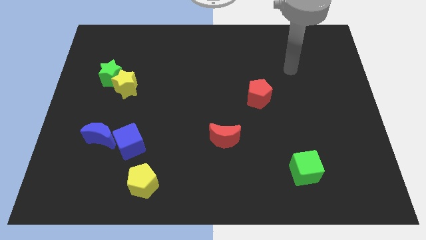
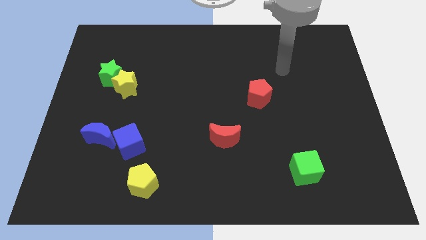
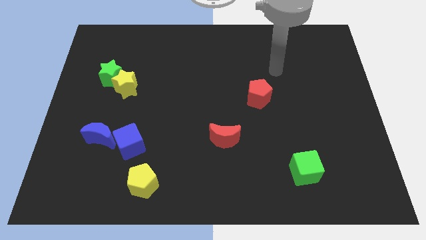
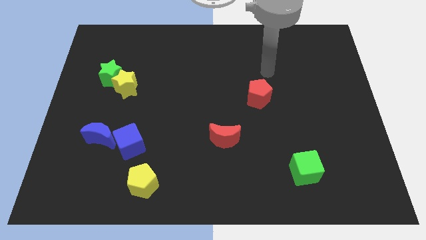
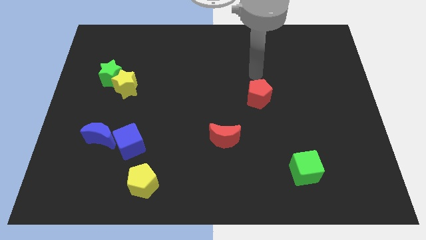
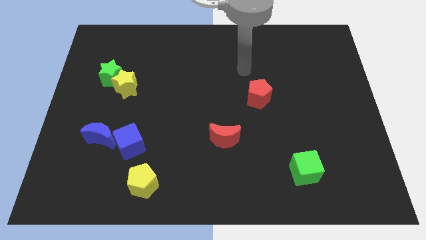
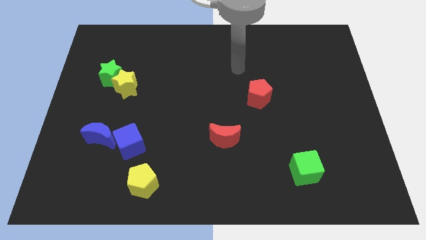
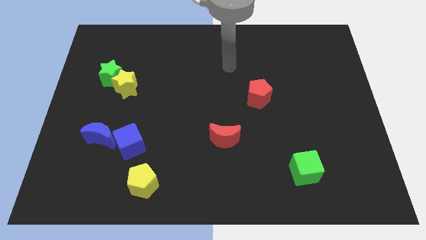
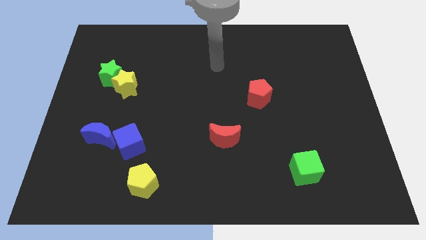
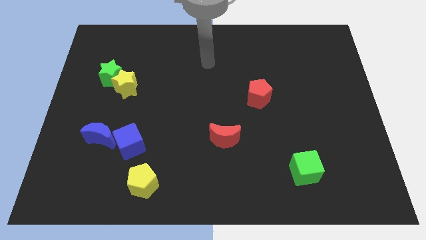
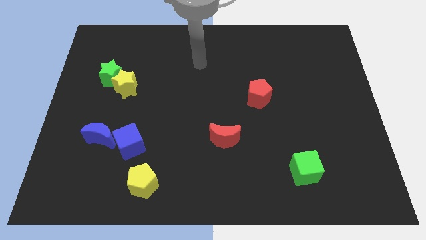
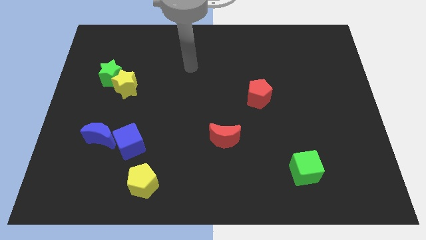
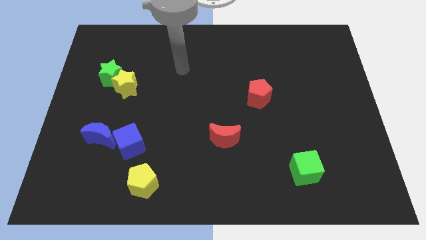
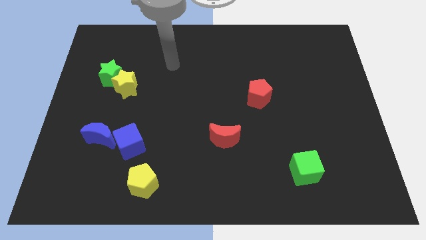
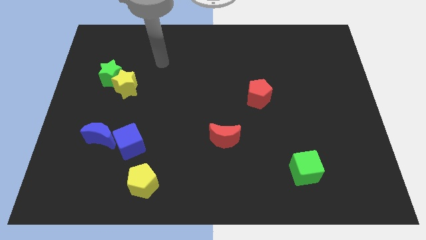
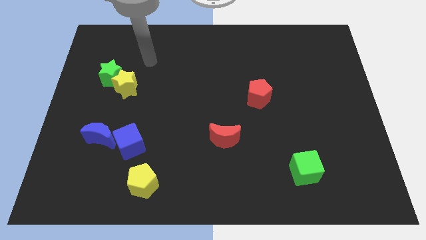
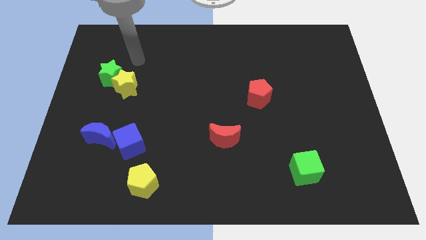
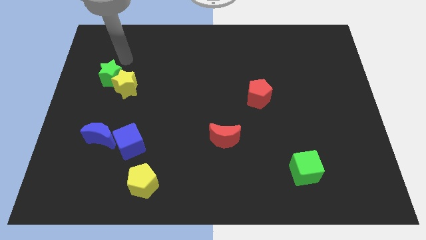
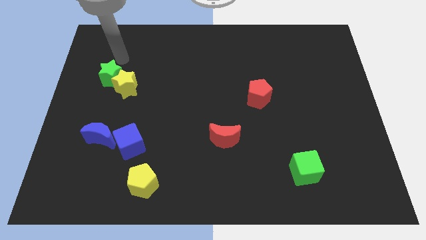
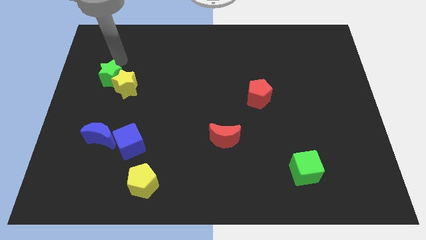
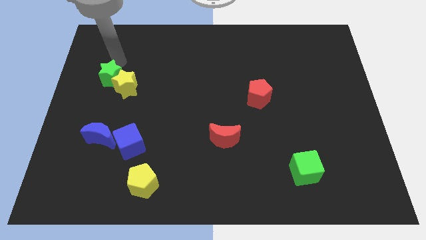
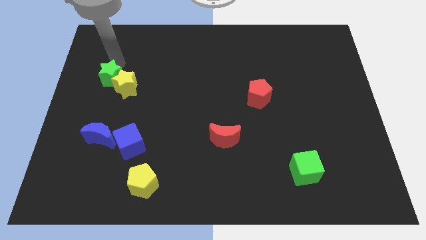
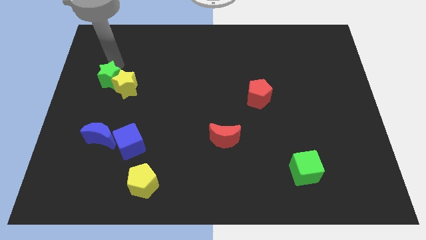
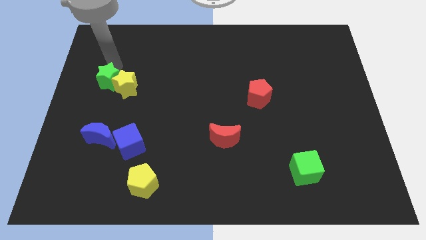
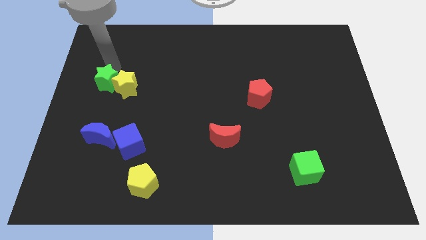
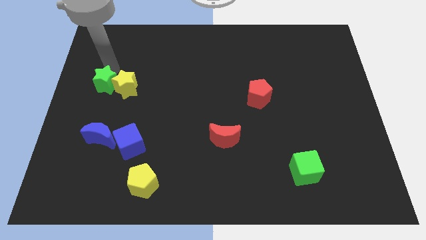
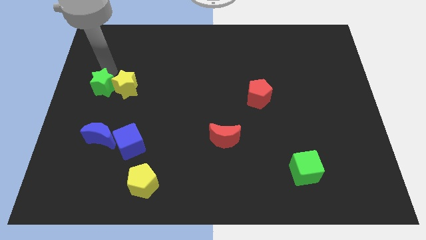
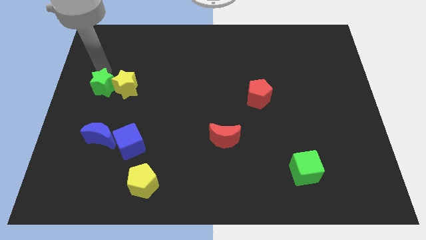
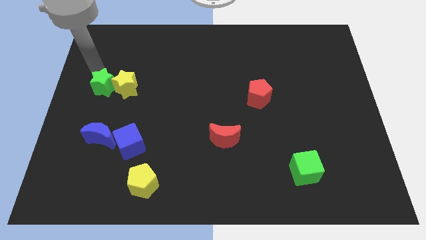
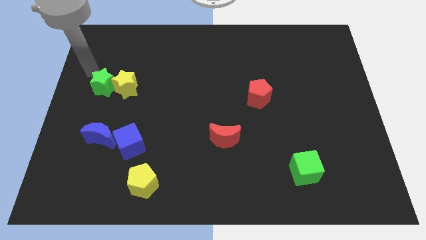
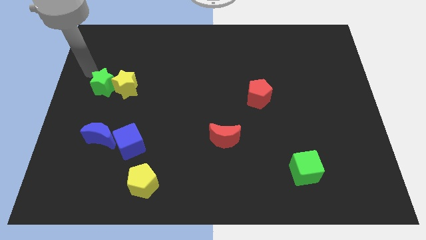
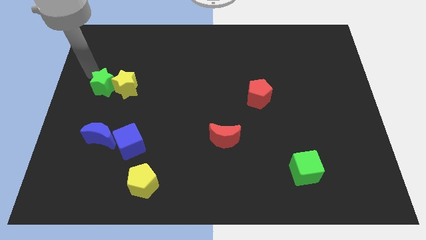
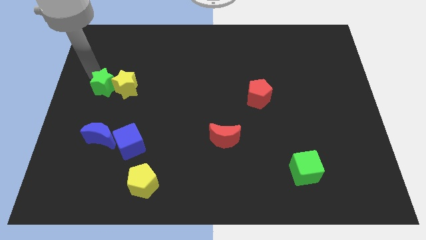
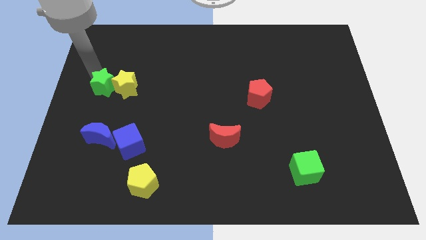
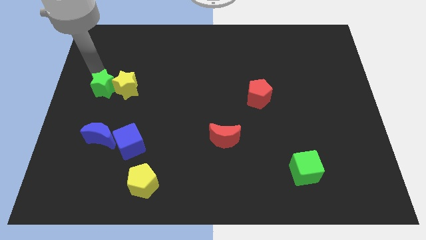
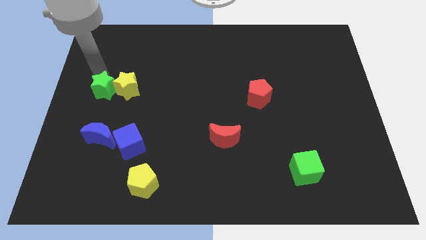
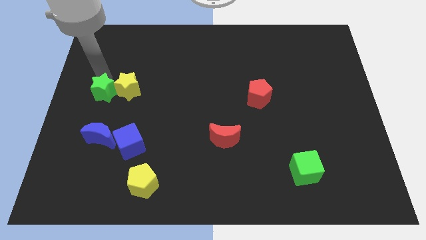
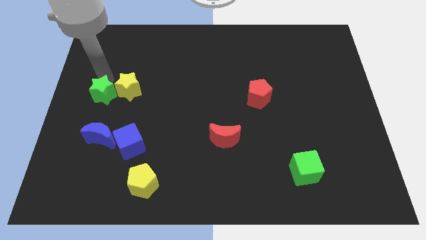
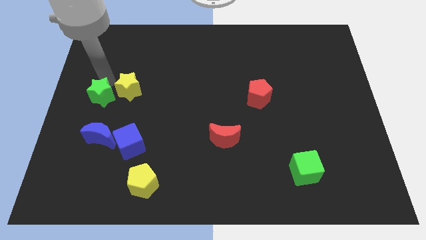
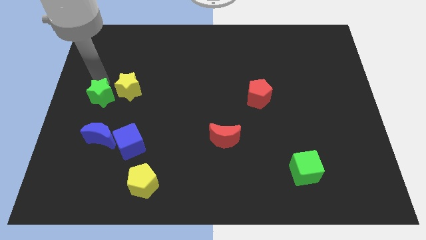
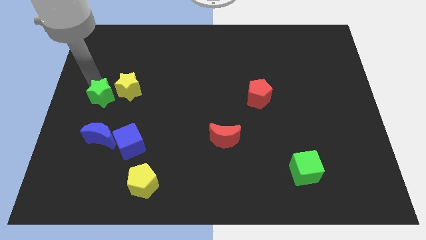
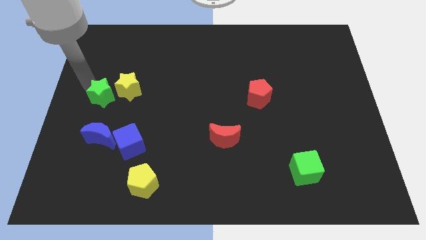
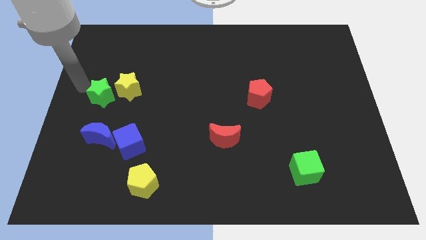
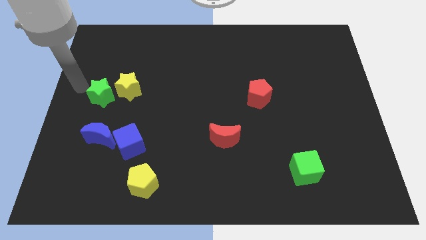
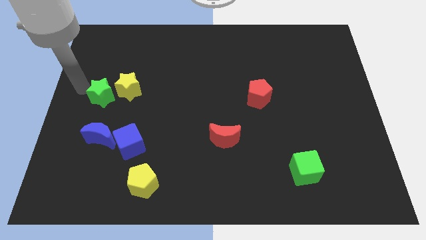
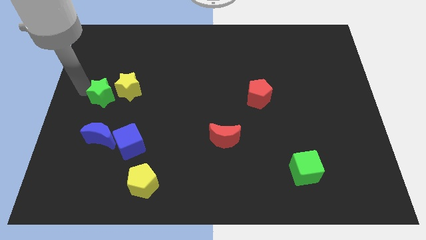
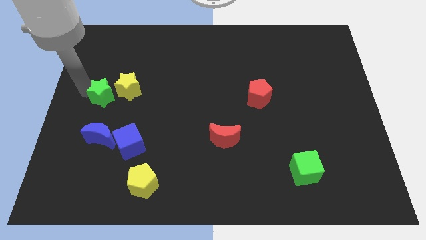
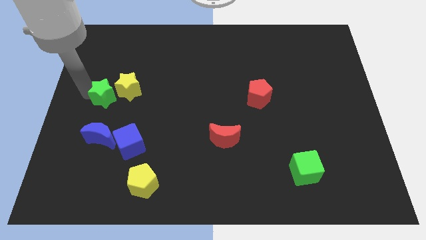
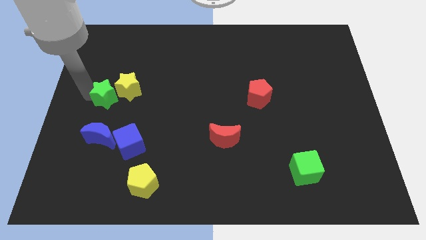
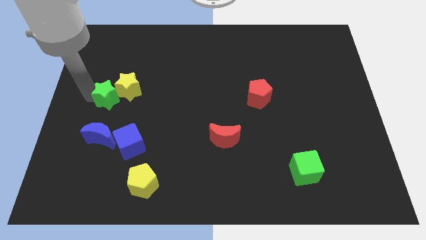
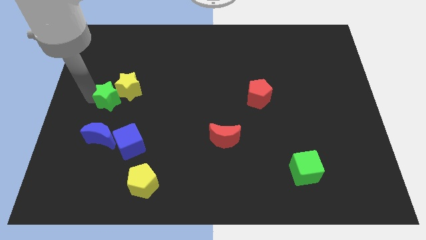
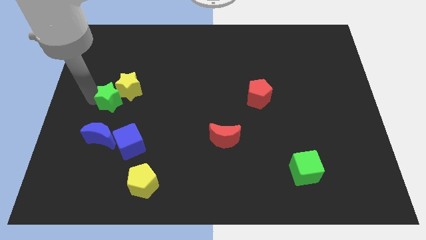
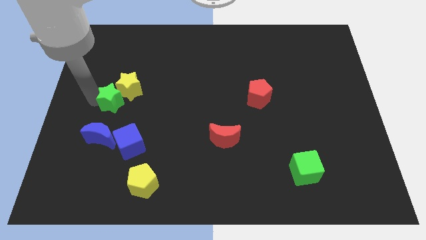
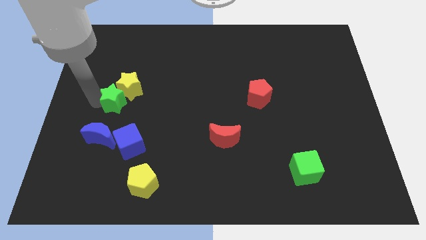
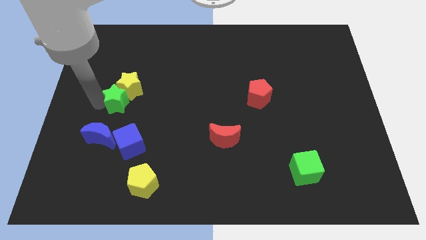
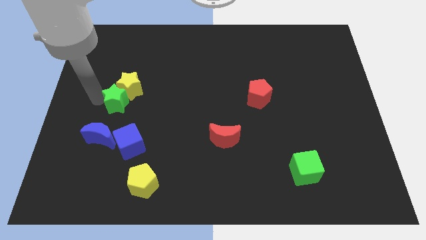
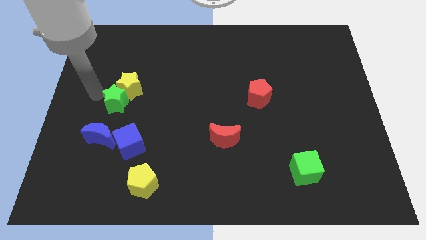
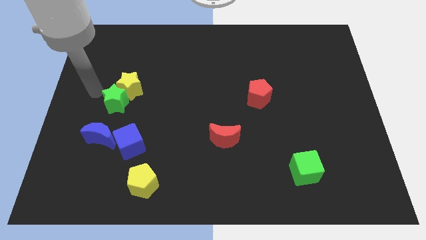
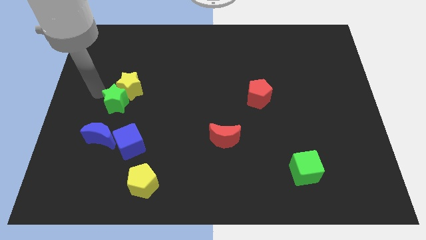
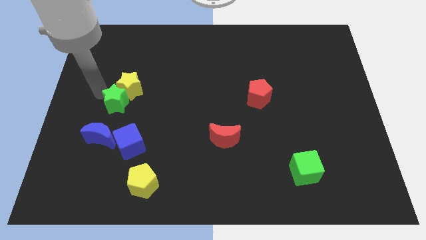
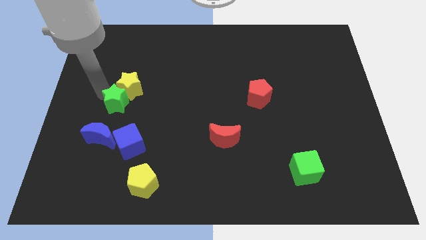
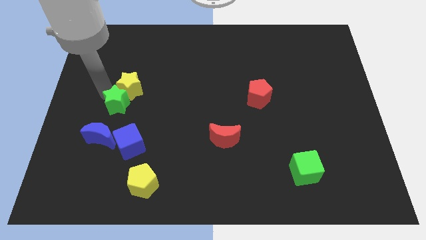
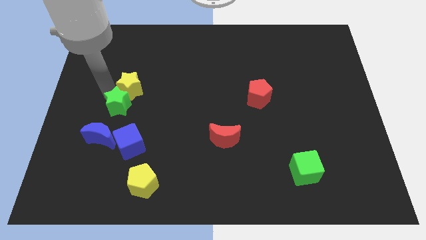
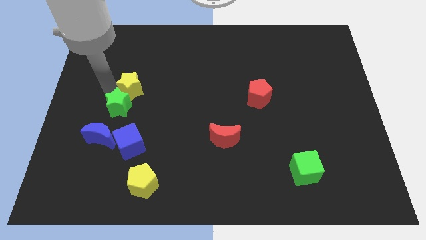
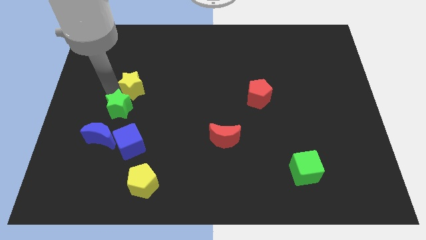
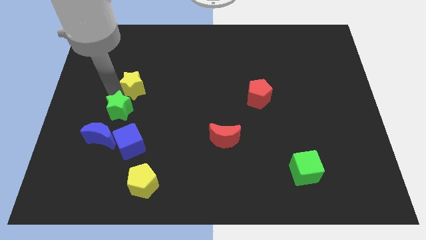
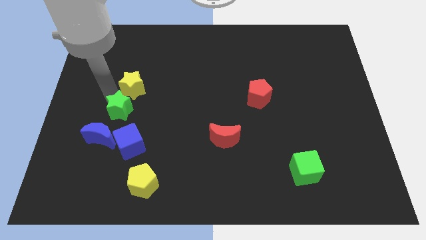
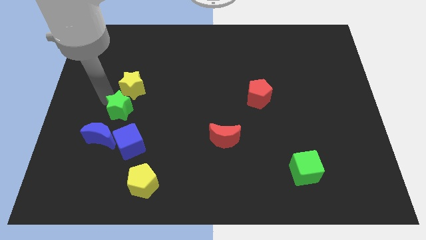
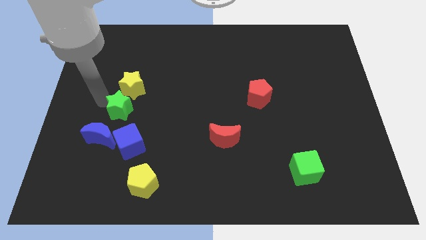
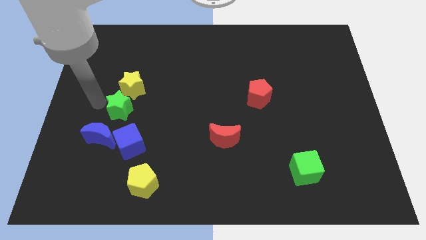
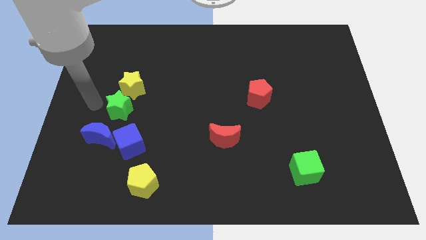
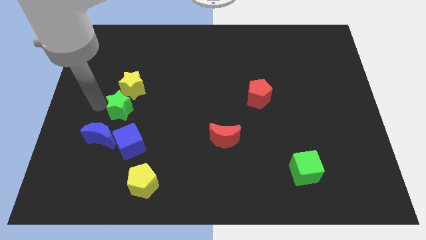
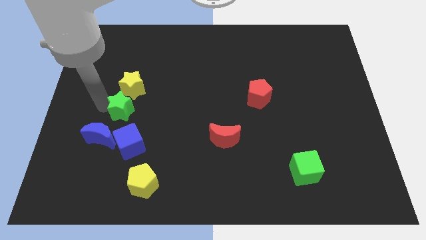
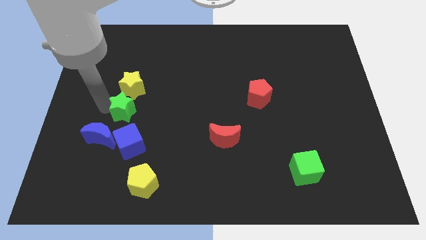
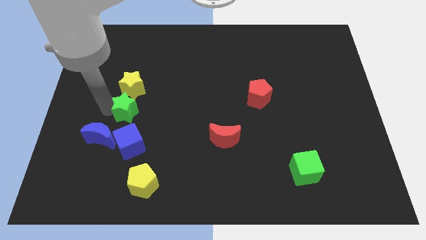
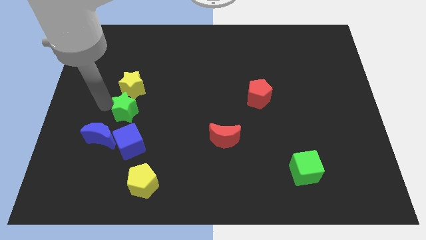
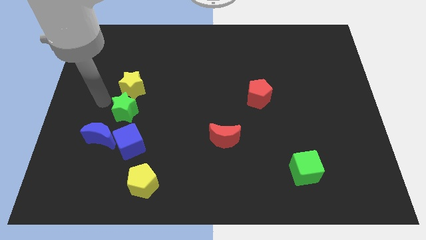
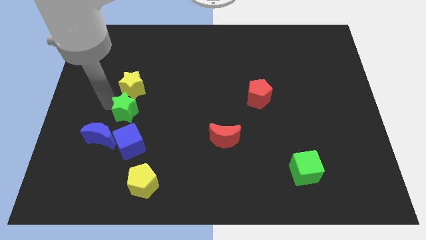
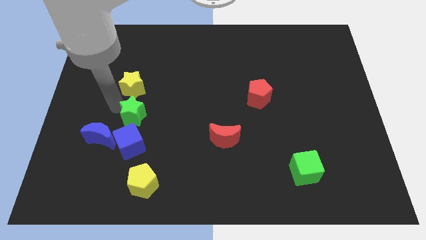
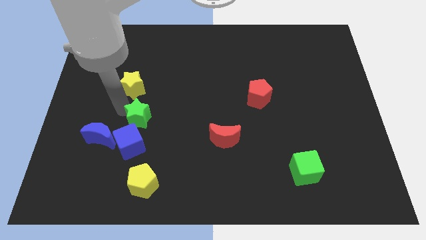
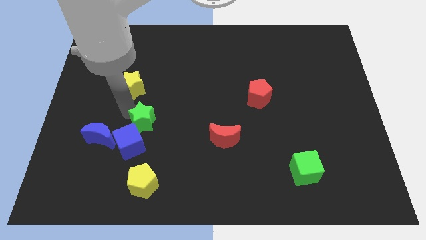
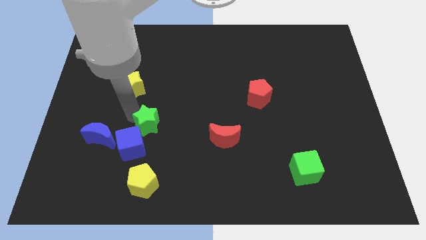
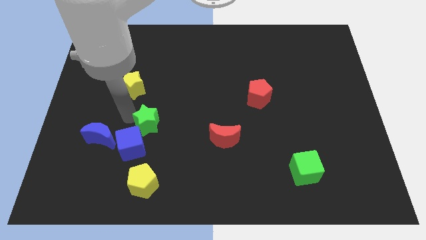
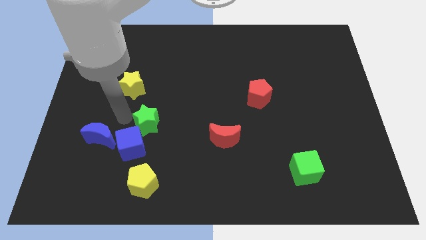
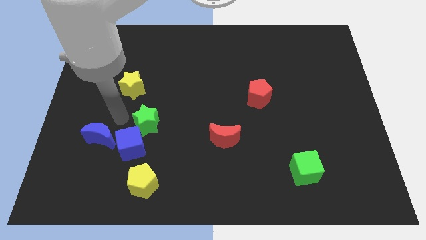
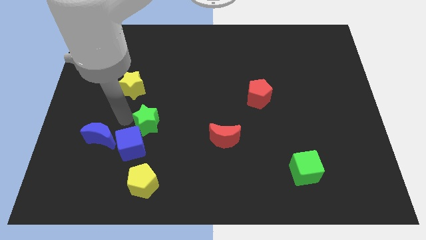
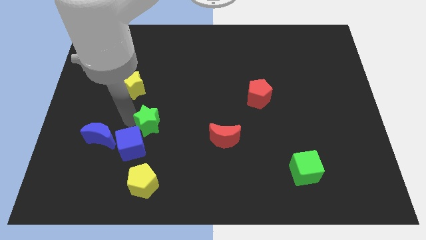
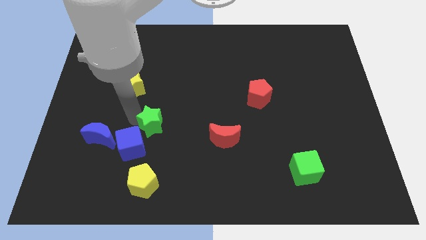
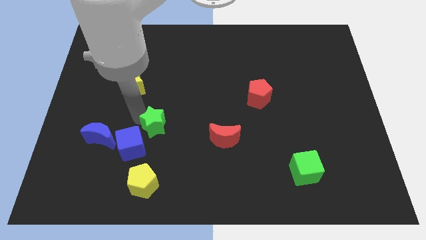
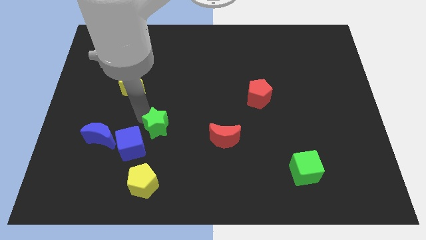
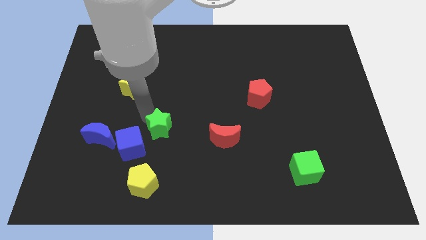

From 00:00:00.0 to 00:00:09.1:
move the green star diagonally down and to the right
